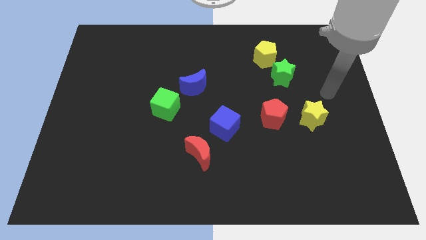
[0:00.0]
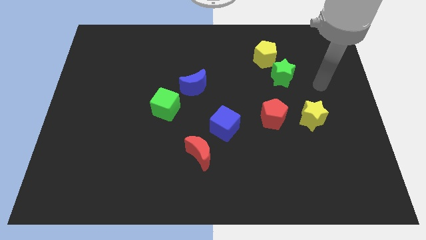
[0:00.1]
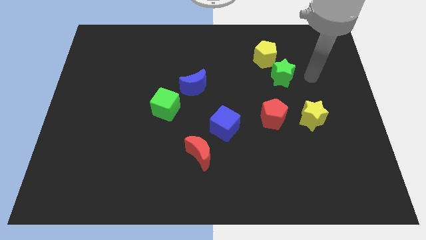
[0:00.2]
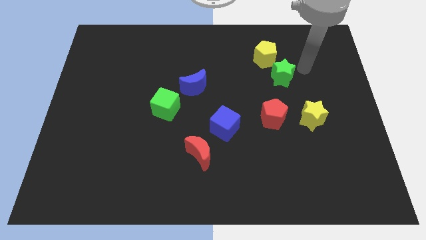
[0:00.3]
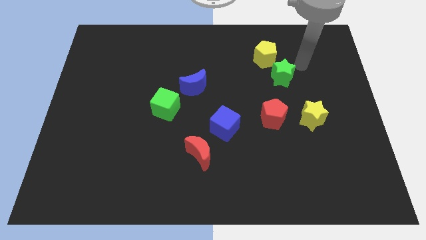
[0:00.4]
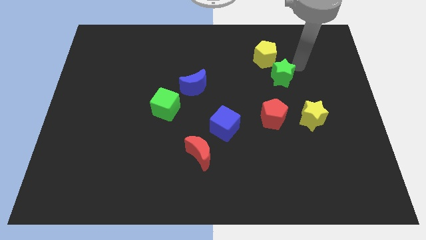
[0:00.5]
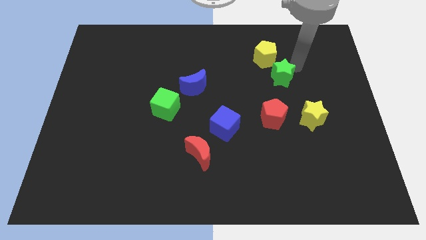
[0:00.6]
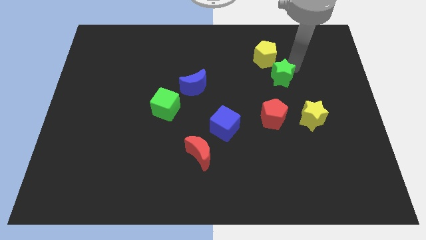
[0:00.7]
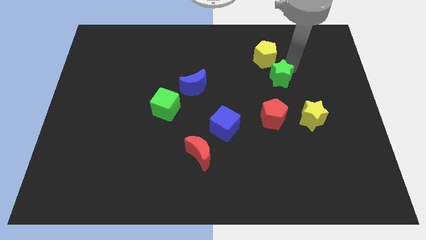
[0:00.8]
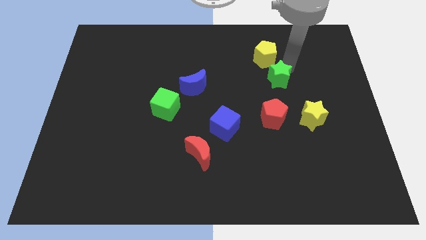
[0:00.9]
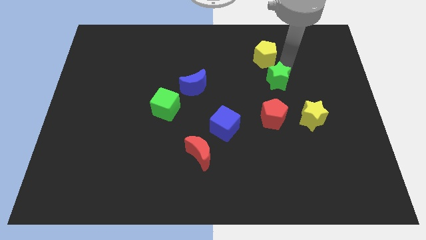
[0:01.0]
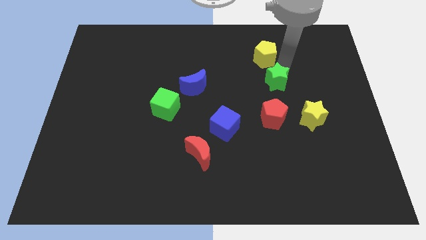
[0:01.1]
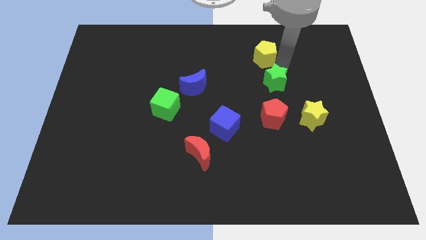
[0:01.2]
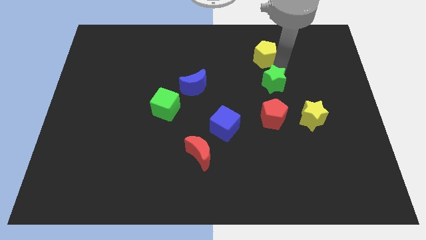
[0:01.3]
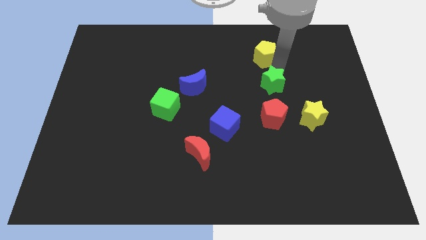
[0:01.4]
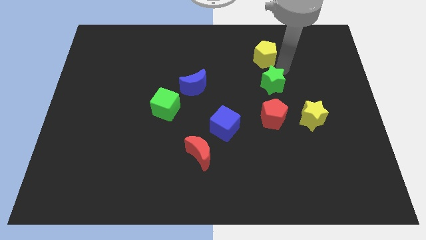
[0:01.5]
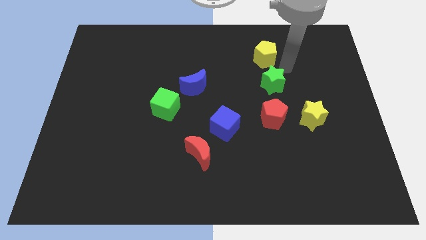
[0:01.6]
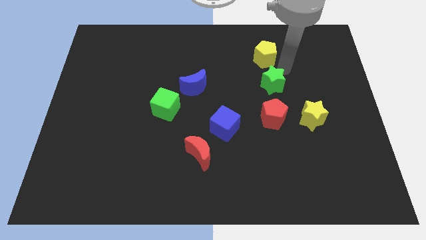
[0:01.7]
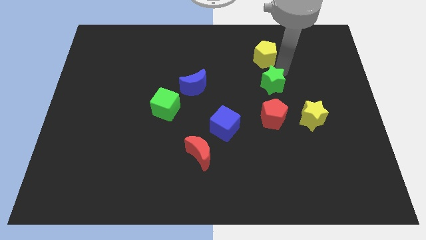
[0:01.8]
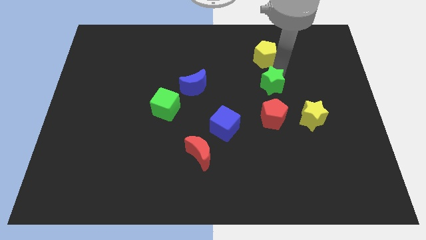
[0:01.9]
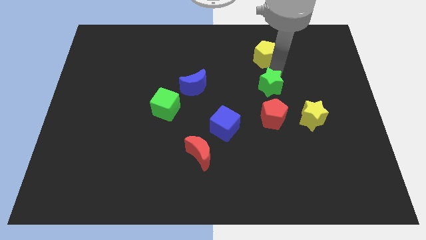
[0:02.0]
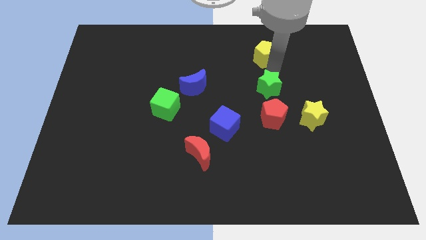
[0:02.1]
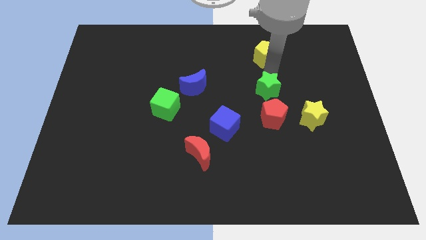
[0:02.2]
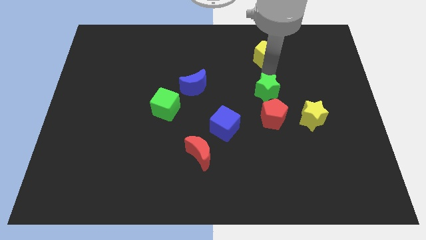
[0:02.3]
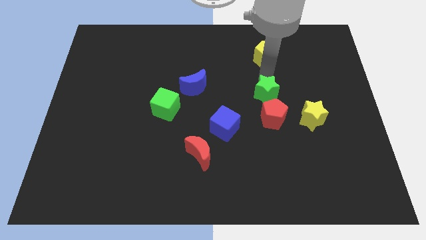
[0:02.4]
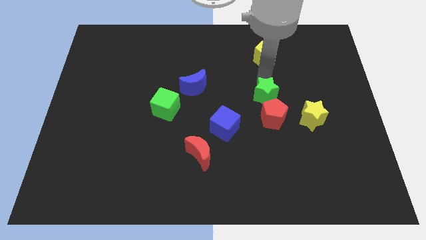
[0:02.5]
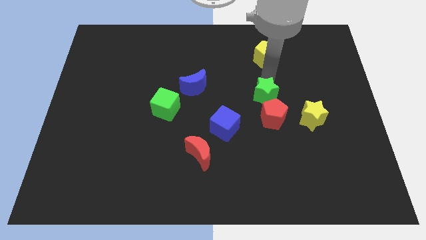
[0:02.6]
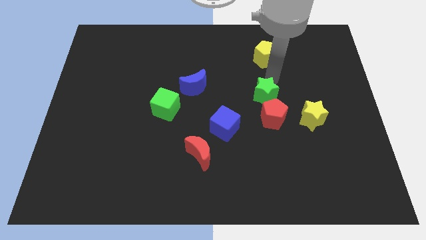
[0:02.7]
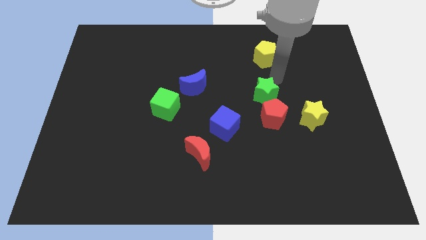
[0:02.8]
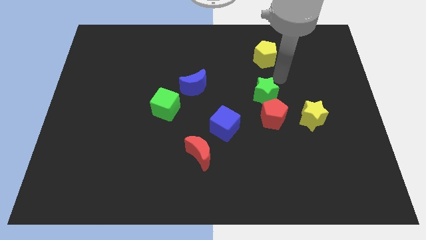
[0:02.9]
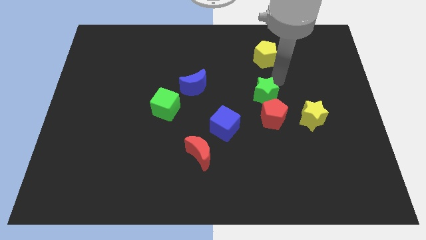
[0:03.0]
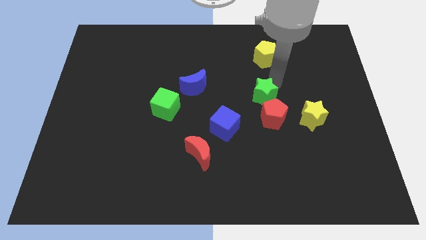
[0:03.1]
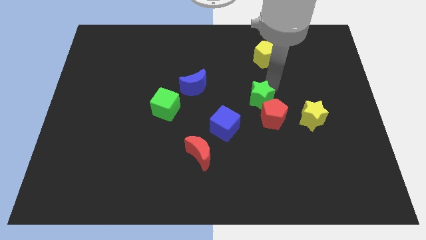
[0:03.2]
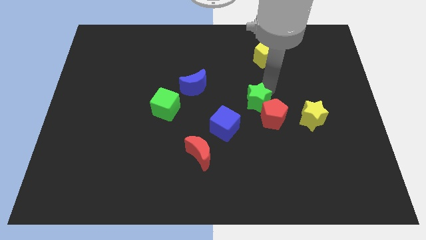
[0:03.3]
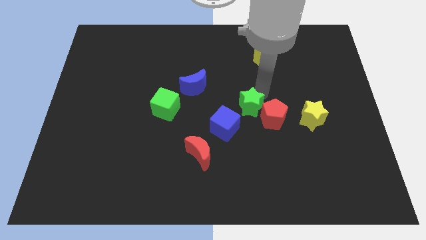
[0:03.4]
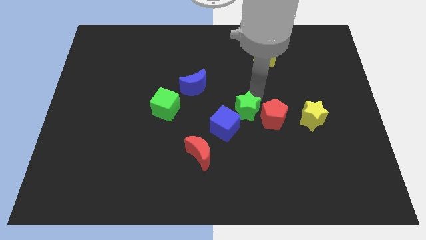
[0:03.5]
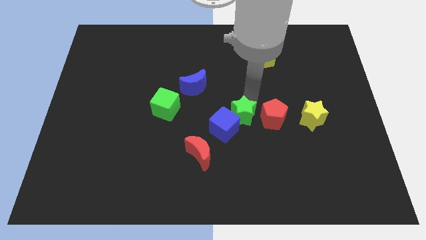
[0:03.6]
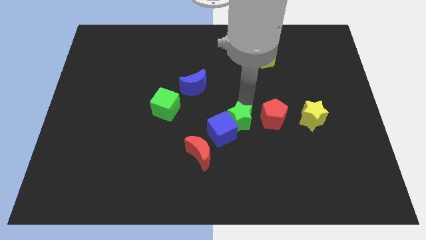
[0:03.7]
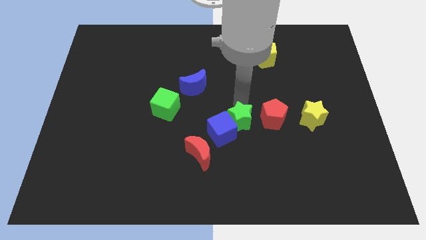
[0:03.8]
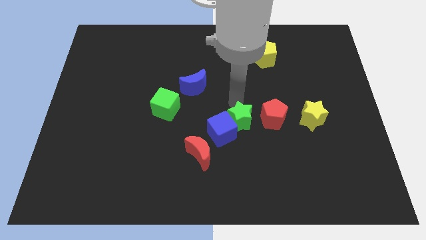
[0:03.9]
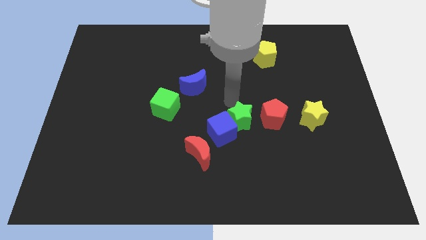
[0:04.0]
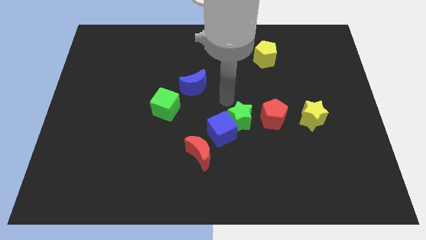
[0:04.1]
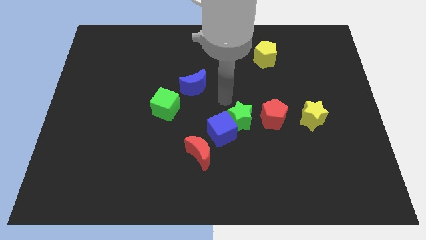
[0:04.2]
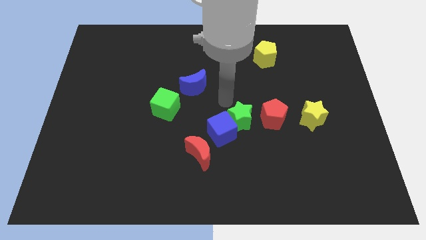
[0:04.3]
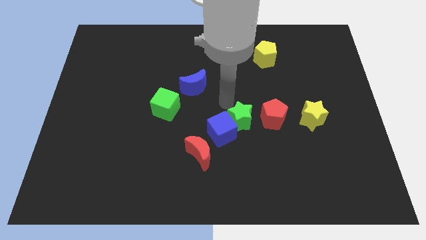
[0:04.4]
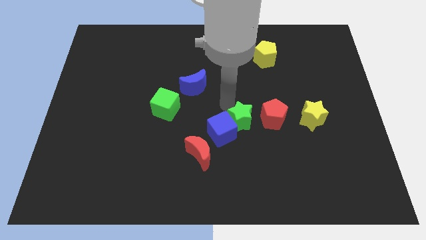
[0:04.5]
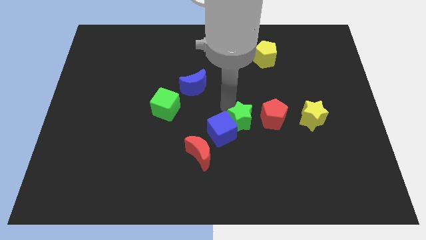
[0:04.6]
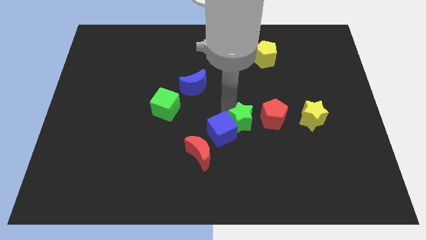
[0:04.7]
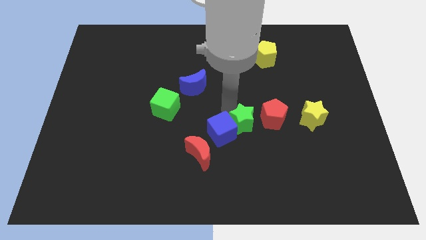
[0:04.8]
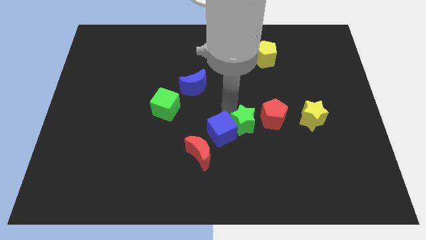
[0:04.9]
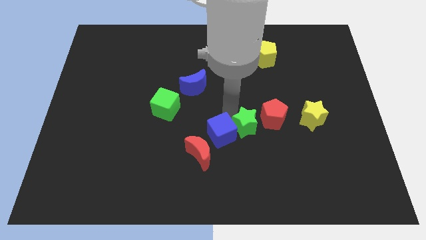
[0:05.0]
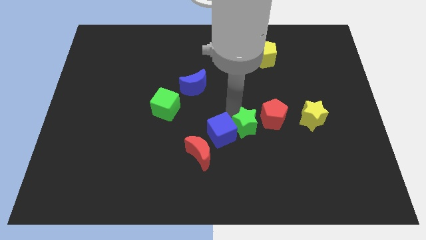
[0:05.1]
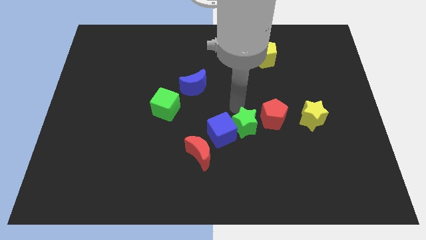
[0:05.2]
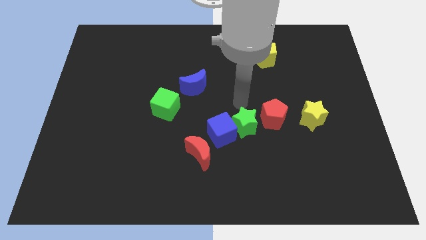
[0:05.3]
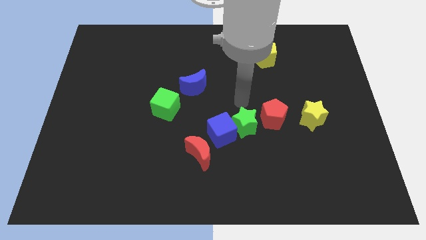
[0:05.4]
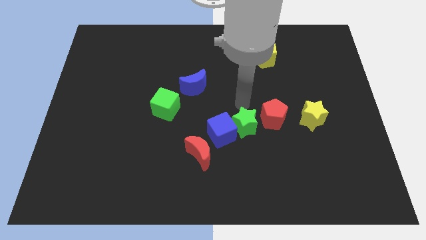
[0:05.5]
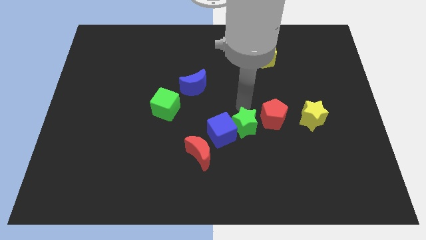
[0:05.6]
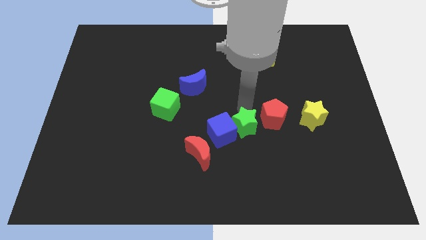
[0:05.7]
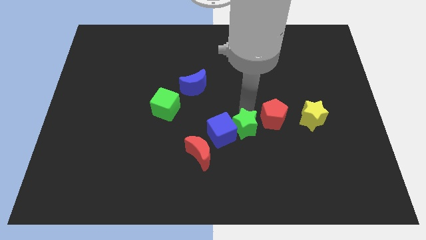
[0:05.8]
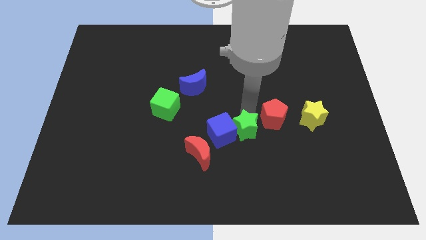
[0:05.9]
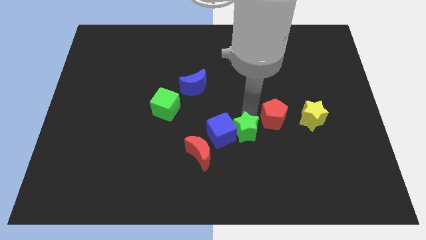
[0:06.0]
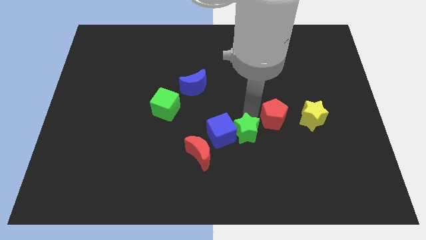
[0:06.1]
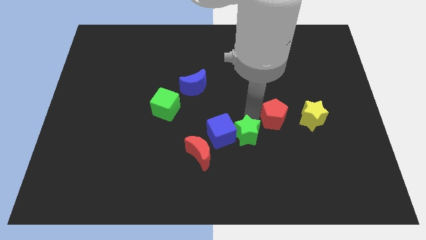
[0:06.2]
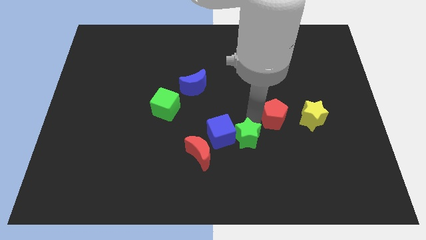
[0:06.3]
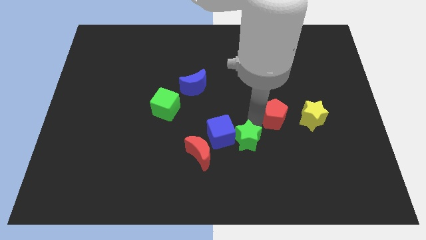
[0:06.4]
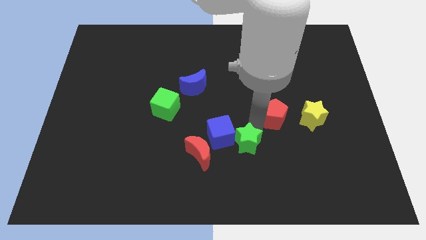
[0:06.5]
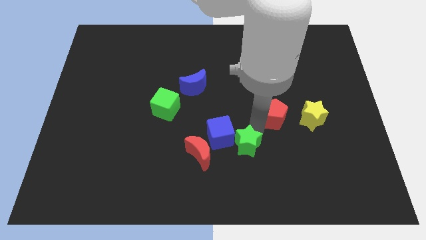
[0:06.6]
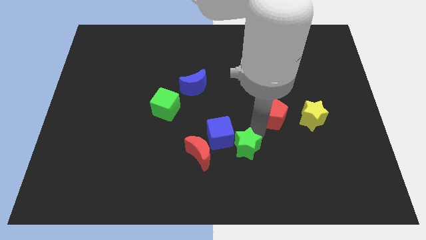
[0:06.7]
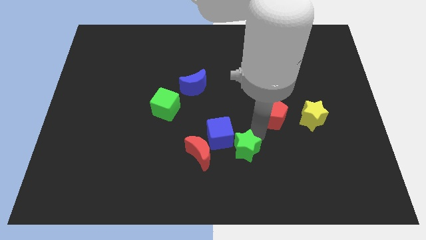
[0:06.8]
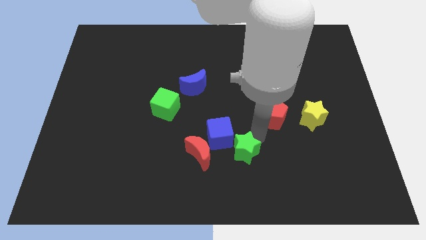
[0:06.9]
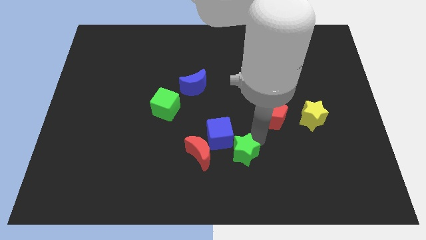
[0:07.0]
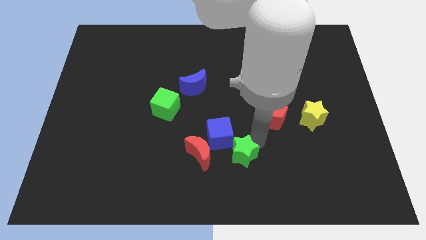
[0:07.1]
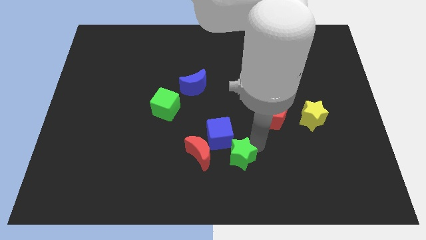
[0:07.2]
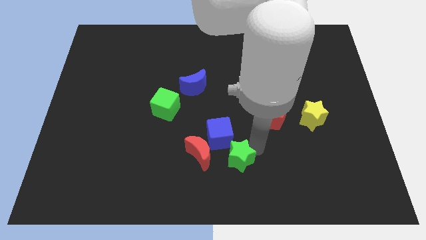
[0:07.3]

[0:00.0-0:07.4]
push the green star to the bottom side
